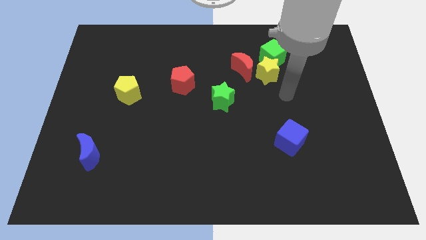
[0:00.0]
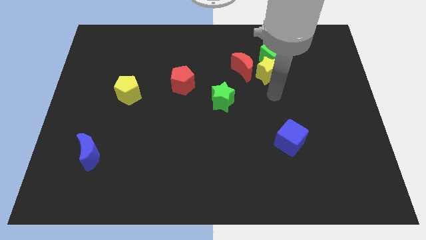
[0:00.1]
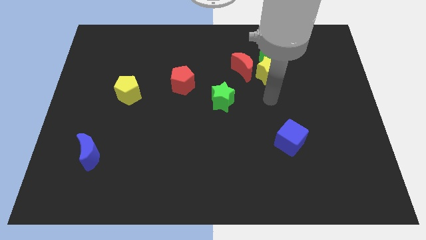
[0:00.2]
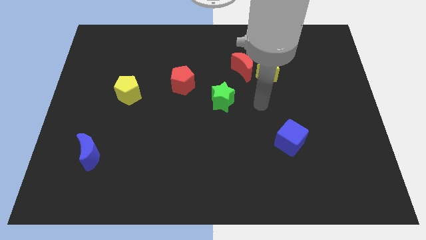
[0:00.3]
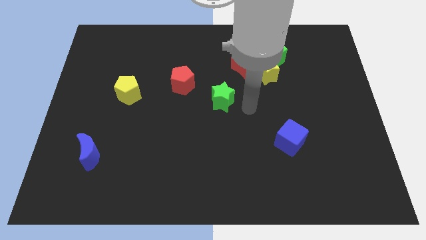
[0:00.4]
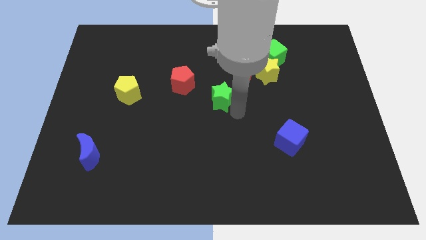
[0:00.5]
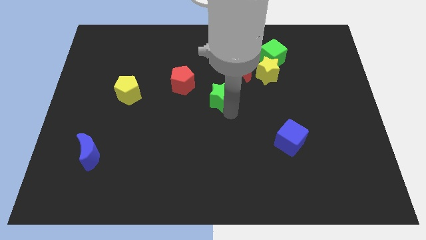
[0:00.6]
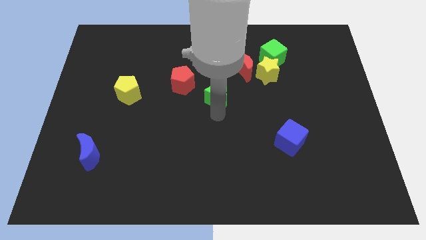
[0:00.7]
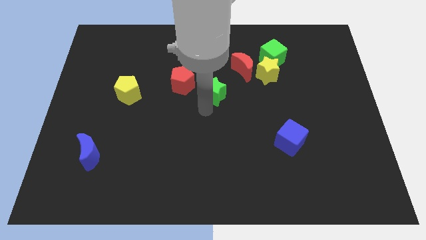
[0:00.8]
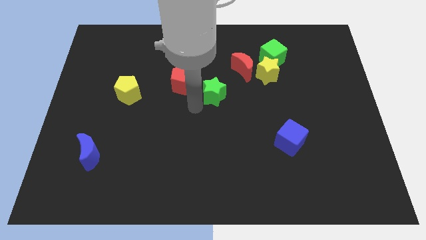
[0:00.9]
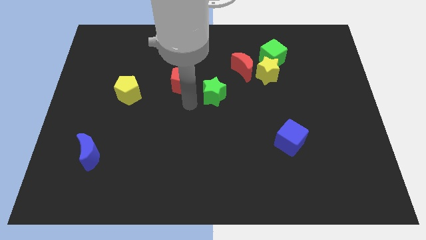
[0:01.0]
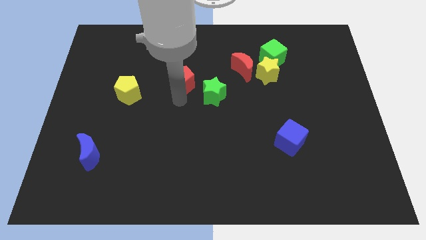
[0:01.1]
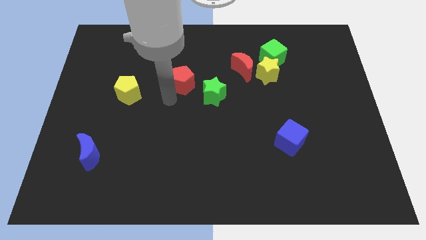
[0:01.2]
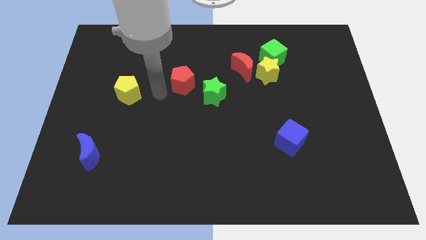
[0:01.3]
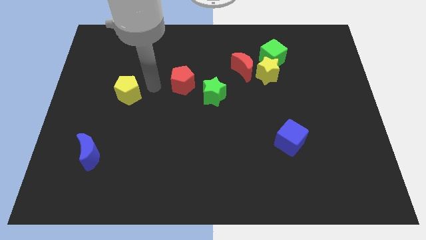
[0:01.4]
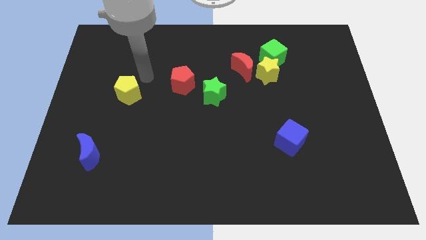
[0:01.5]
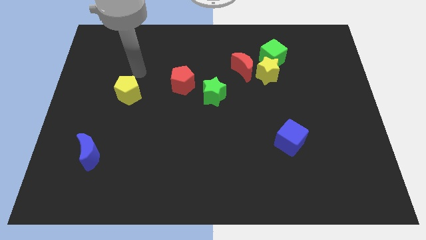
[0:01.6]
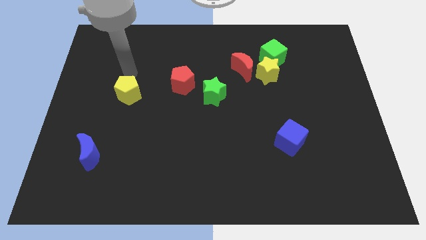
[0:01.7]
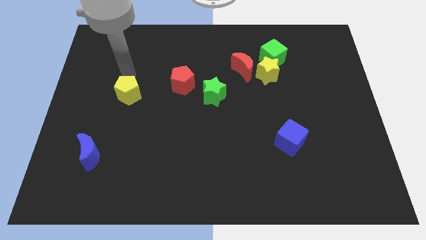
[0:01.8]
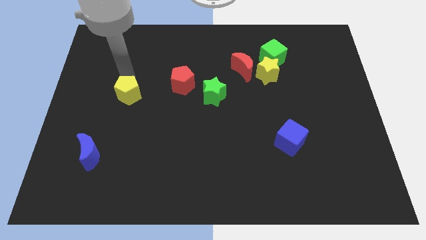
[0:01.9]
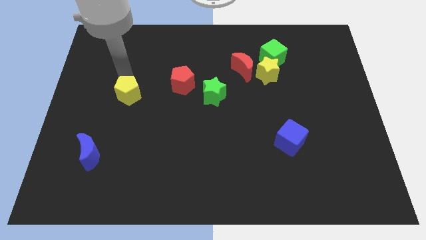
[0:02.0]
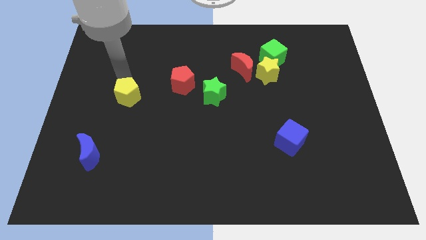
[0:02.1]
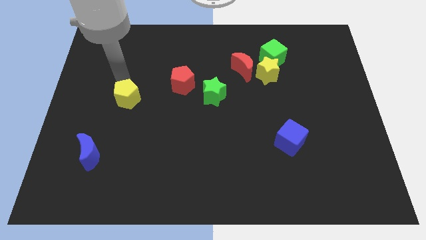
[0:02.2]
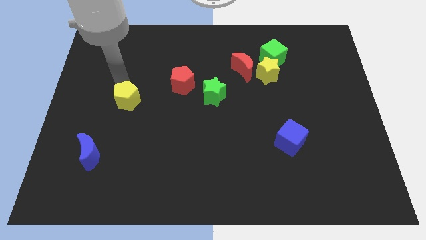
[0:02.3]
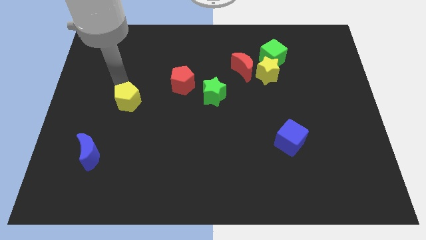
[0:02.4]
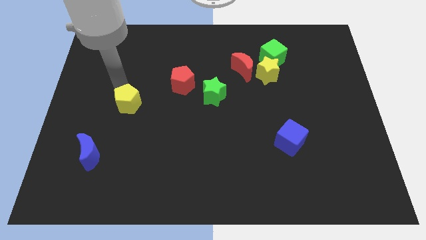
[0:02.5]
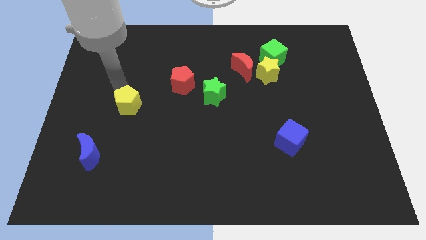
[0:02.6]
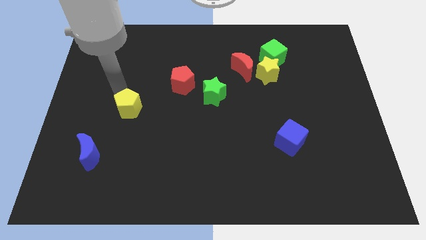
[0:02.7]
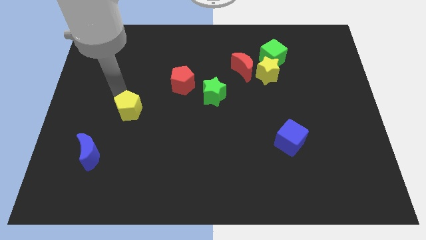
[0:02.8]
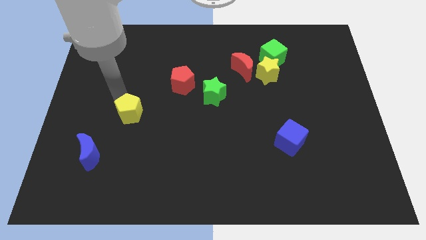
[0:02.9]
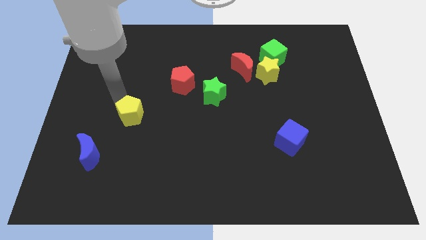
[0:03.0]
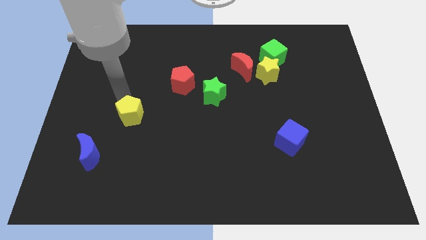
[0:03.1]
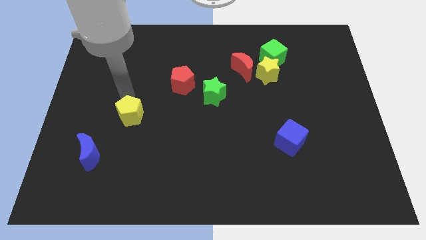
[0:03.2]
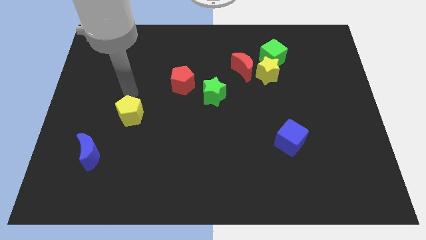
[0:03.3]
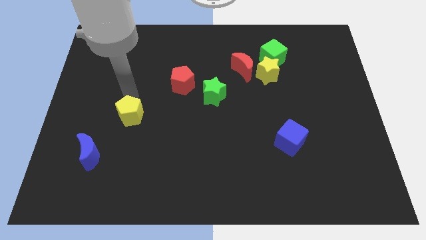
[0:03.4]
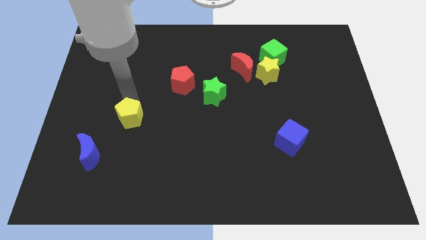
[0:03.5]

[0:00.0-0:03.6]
push the yellow pentagon downwards somewhat

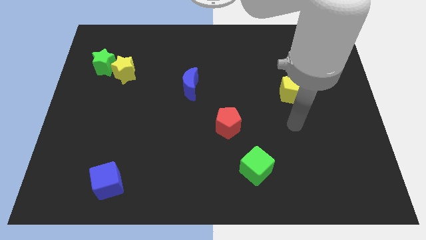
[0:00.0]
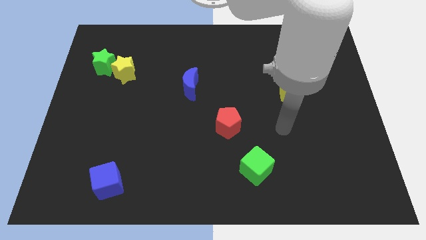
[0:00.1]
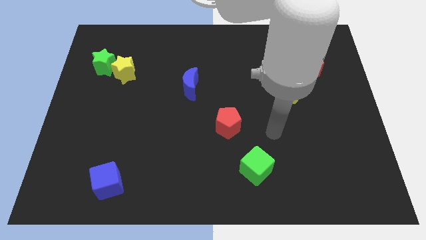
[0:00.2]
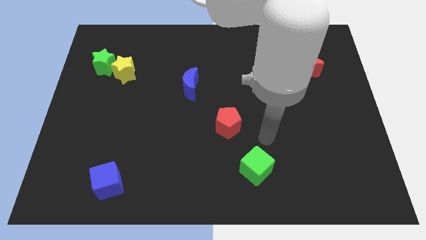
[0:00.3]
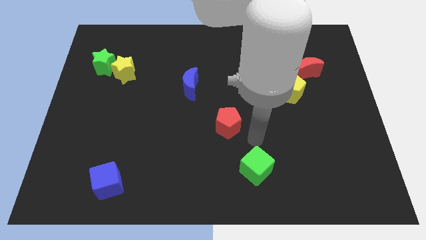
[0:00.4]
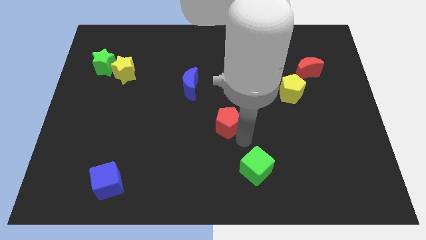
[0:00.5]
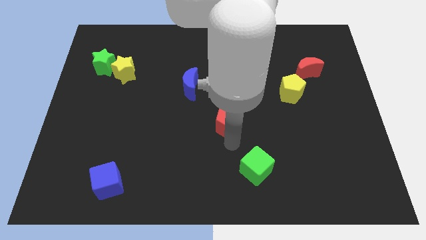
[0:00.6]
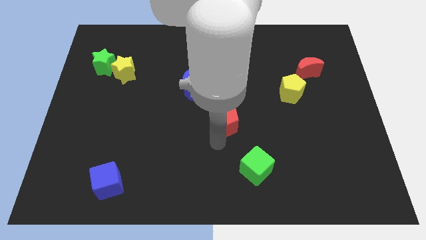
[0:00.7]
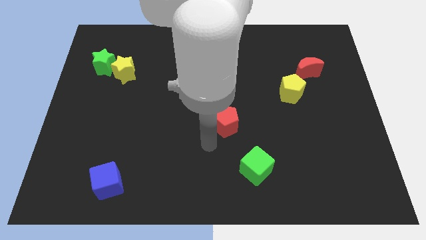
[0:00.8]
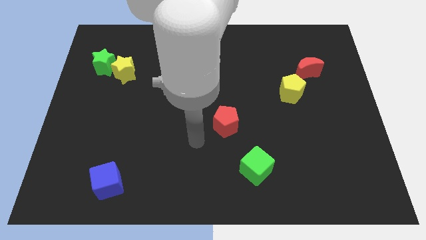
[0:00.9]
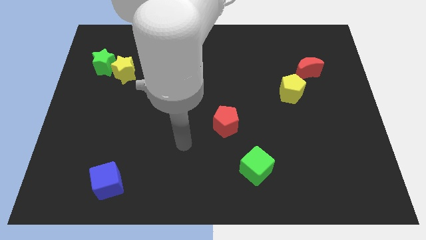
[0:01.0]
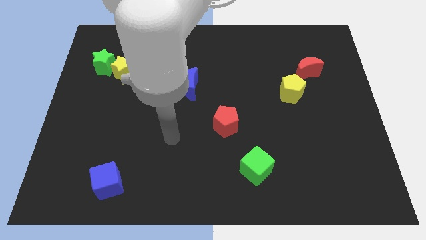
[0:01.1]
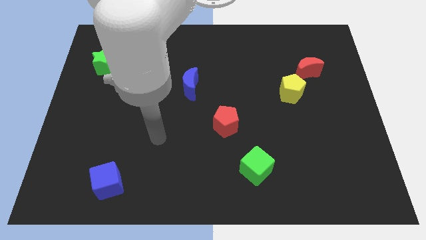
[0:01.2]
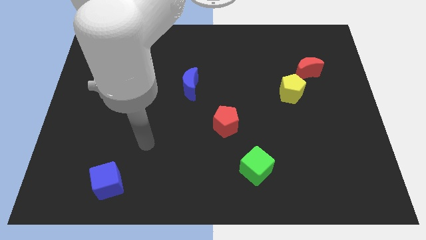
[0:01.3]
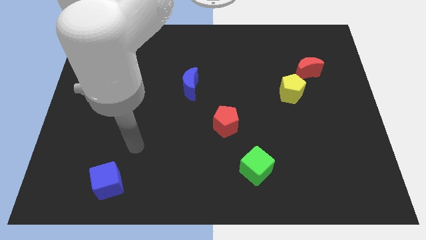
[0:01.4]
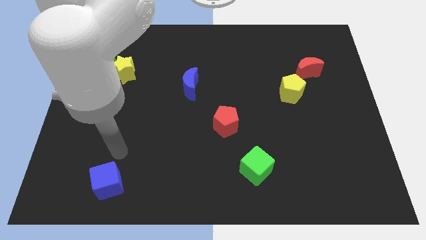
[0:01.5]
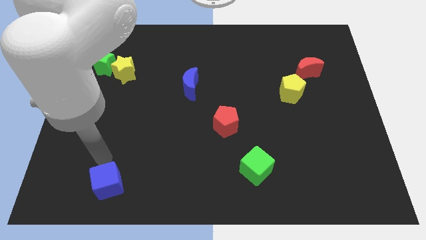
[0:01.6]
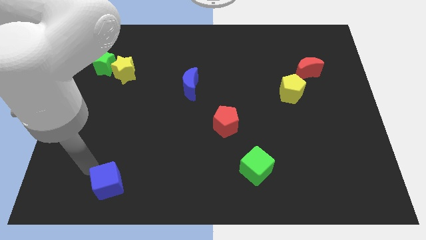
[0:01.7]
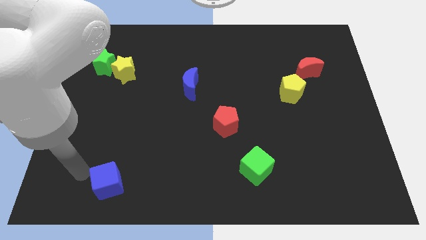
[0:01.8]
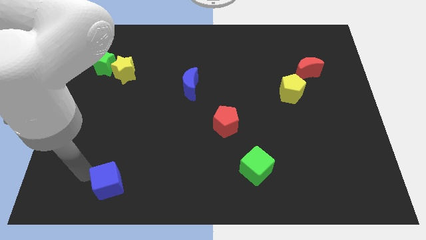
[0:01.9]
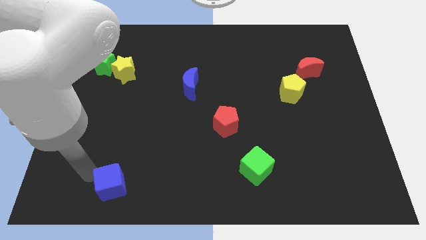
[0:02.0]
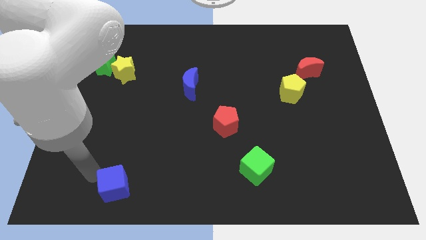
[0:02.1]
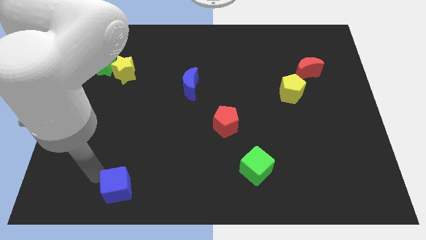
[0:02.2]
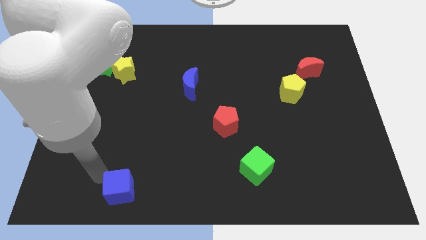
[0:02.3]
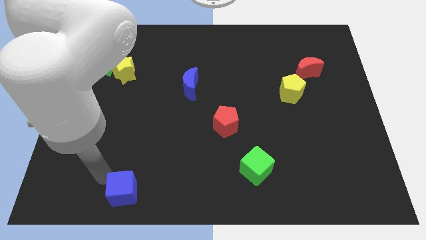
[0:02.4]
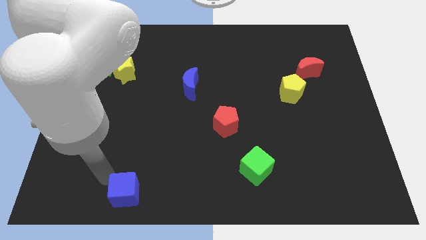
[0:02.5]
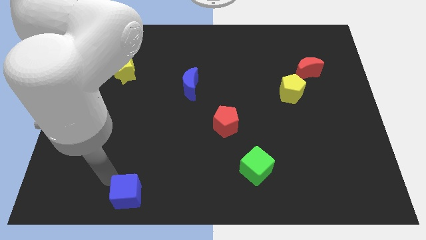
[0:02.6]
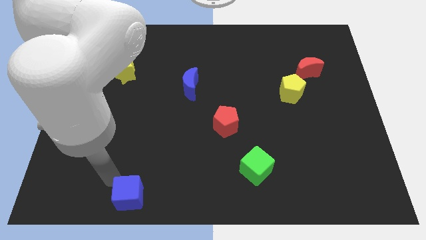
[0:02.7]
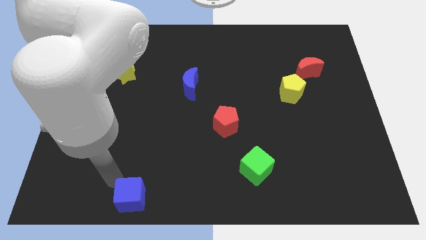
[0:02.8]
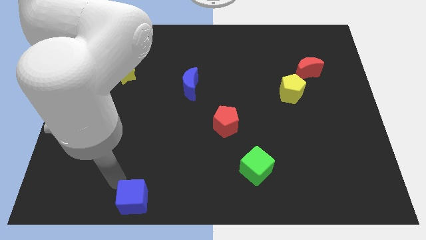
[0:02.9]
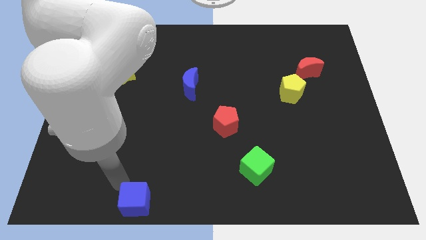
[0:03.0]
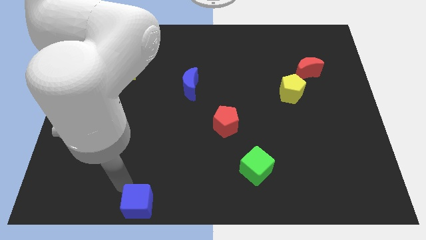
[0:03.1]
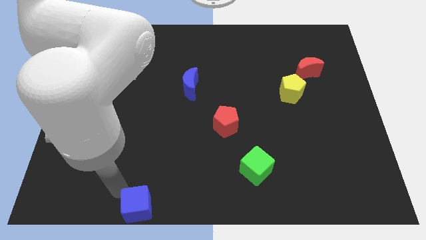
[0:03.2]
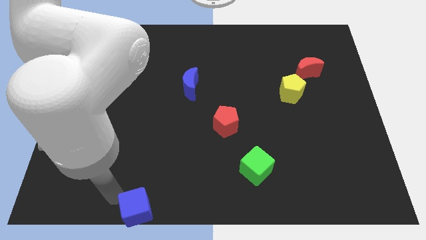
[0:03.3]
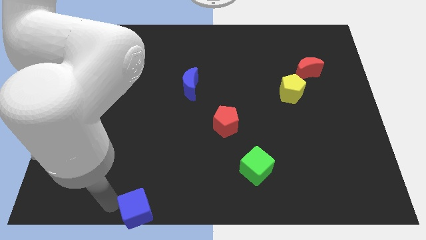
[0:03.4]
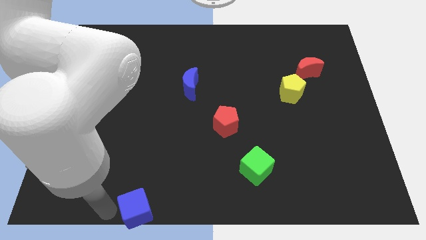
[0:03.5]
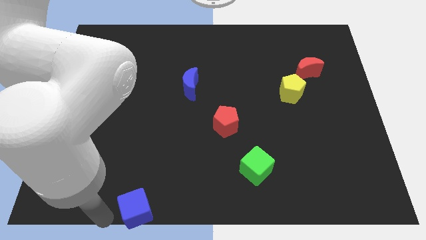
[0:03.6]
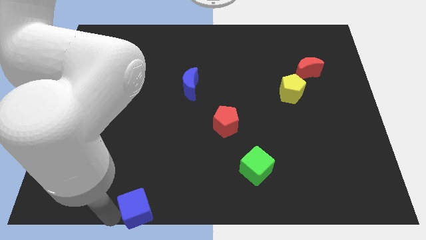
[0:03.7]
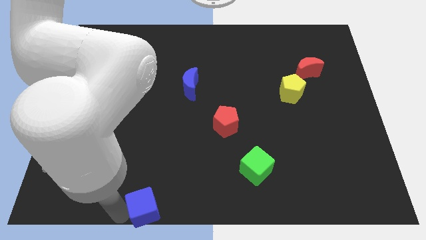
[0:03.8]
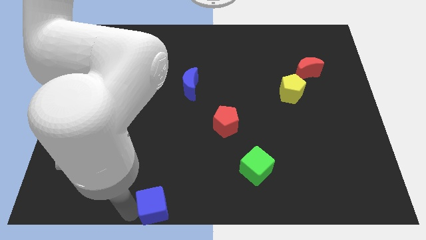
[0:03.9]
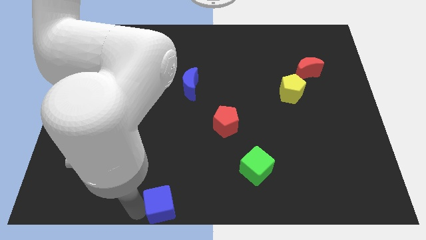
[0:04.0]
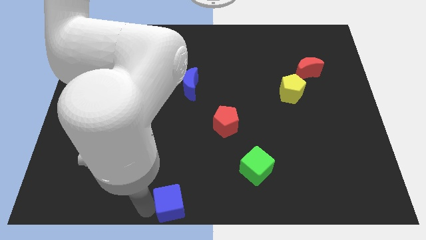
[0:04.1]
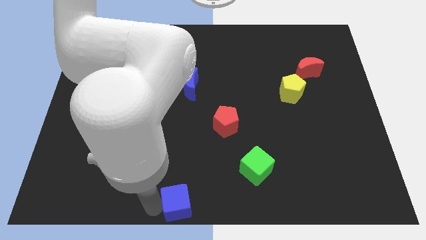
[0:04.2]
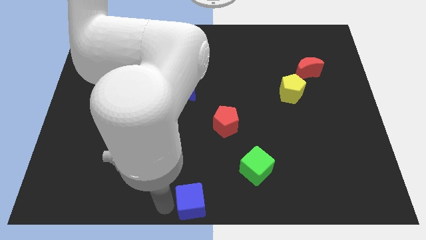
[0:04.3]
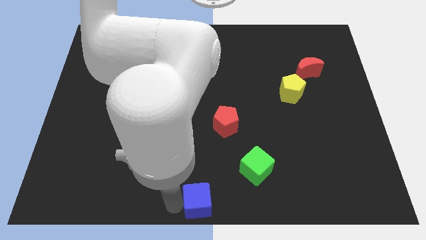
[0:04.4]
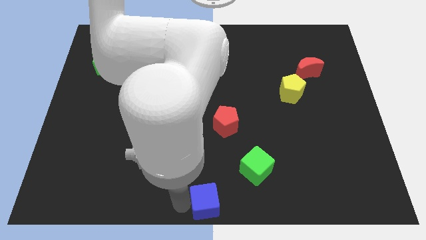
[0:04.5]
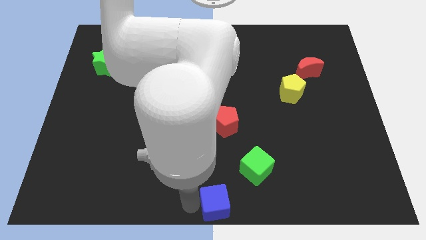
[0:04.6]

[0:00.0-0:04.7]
slide the blue cube right
